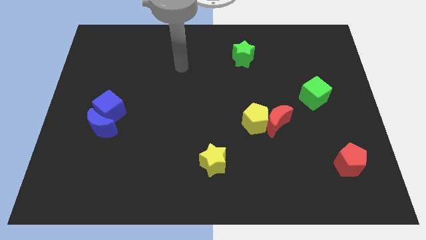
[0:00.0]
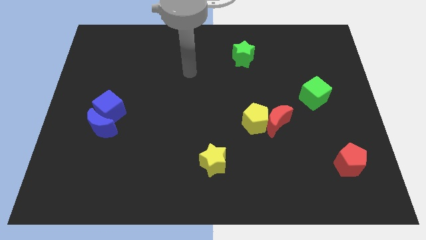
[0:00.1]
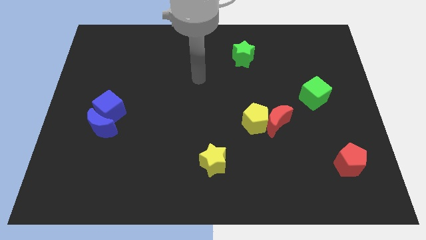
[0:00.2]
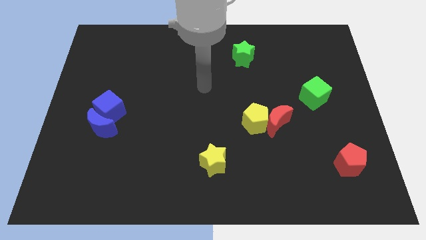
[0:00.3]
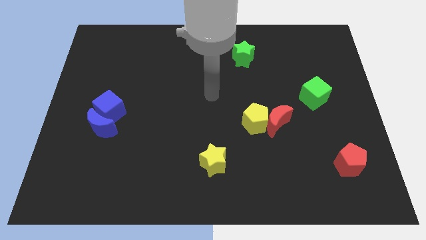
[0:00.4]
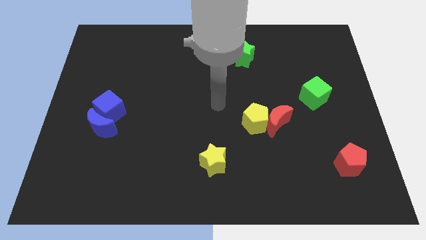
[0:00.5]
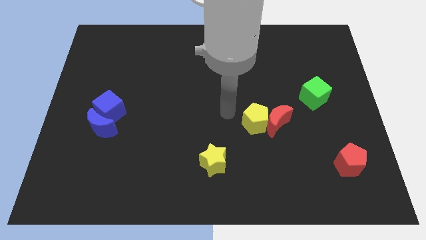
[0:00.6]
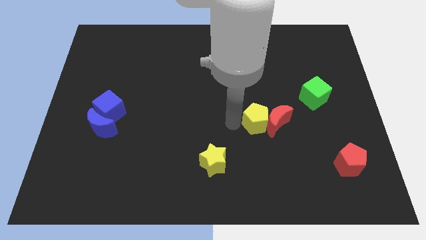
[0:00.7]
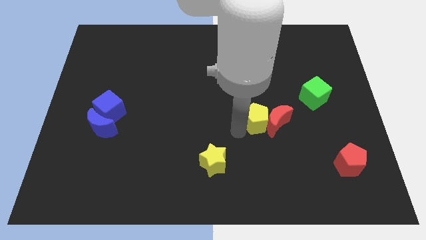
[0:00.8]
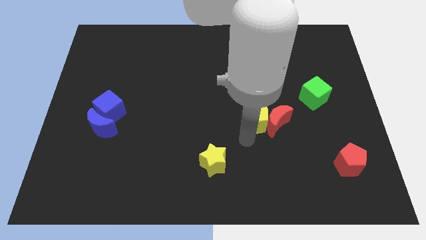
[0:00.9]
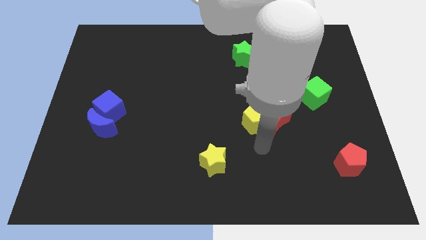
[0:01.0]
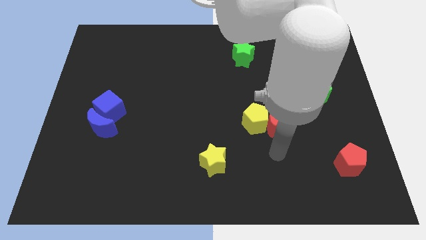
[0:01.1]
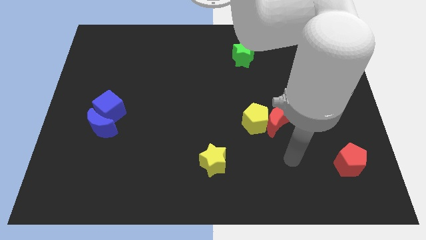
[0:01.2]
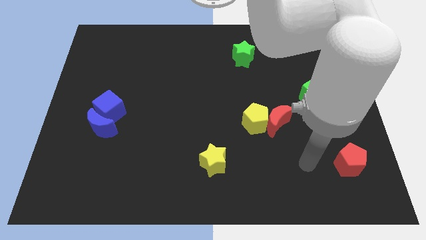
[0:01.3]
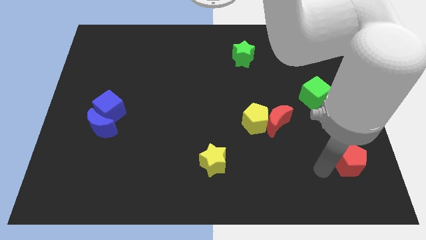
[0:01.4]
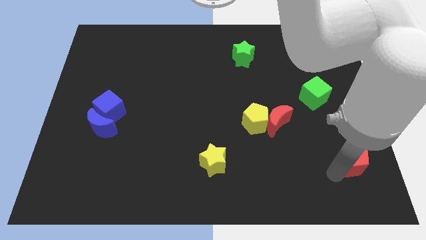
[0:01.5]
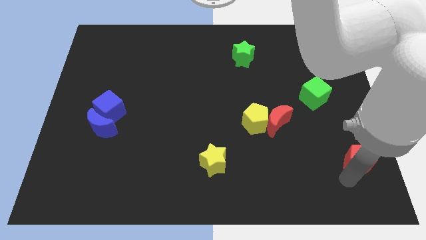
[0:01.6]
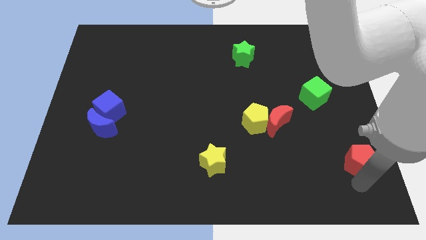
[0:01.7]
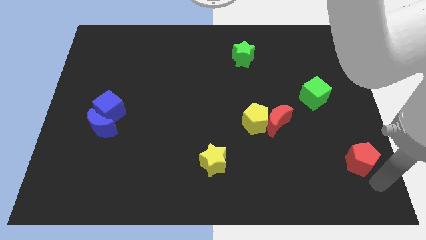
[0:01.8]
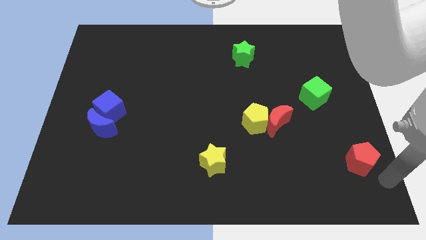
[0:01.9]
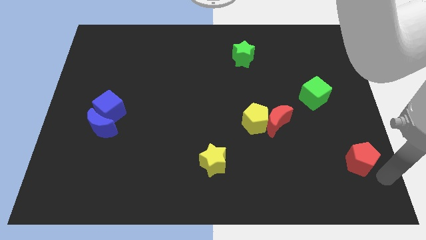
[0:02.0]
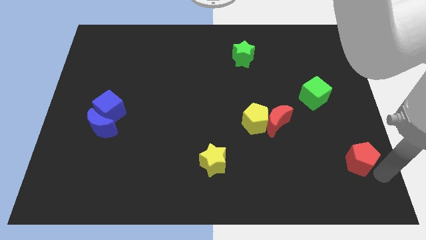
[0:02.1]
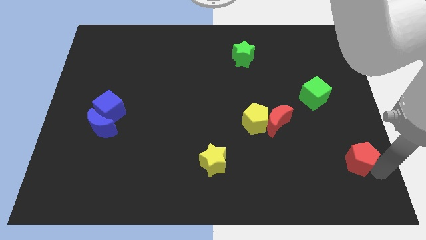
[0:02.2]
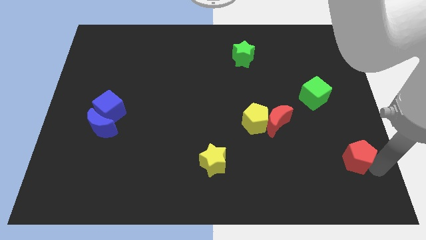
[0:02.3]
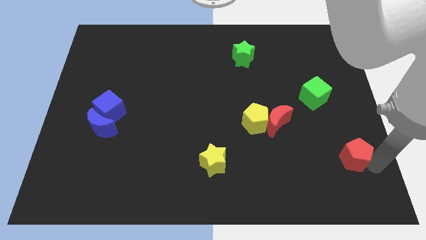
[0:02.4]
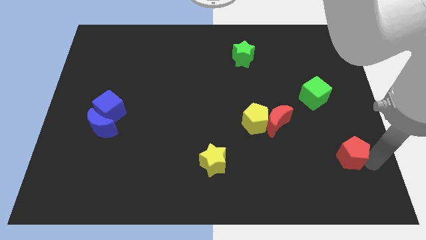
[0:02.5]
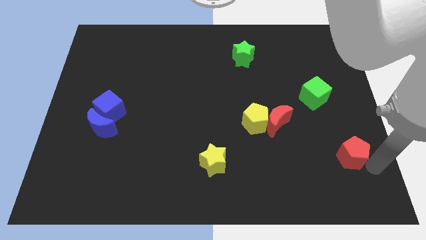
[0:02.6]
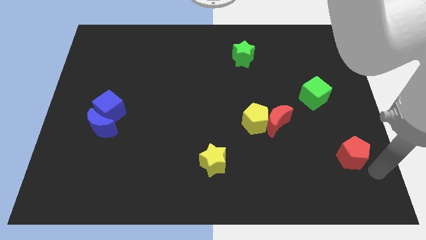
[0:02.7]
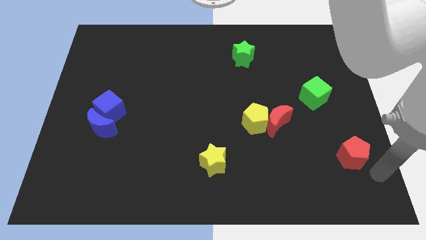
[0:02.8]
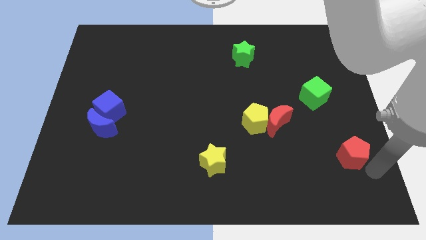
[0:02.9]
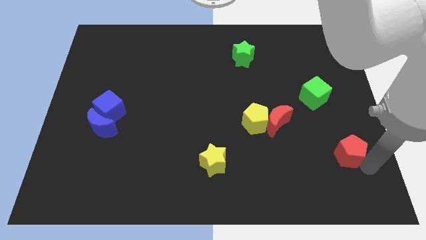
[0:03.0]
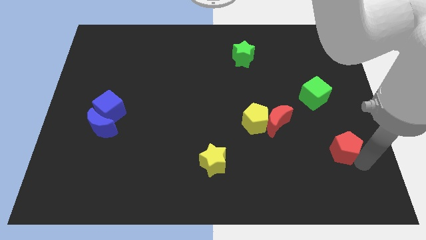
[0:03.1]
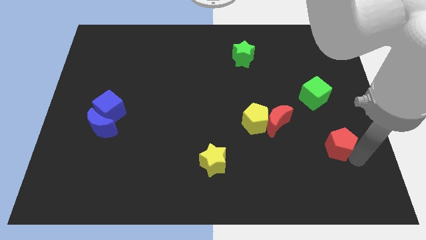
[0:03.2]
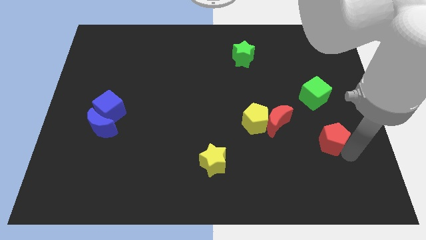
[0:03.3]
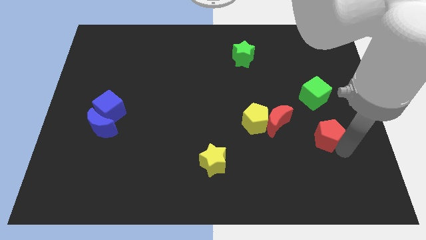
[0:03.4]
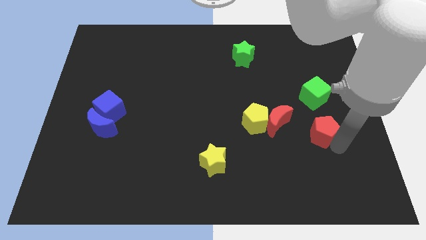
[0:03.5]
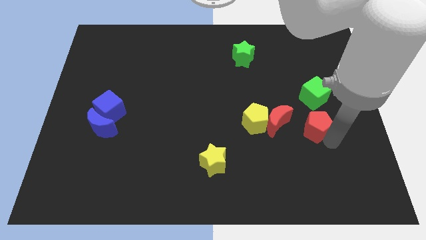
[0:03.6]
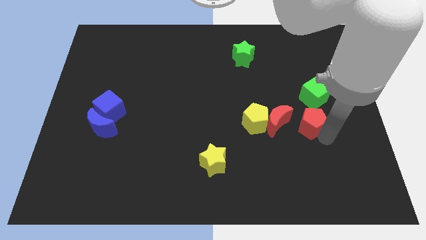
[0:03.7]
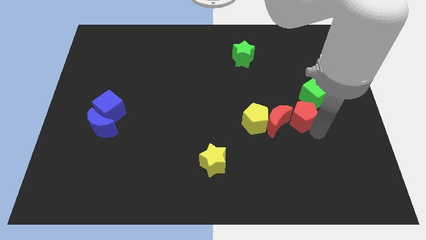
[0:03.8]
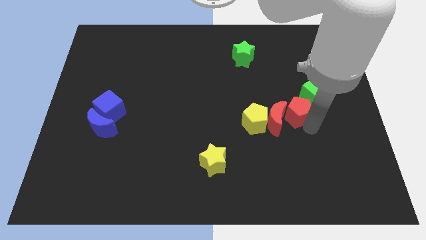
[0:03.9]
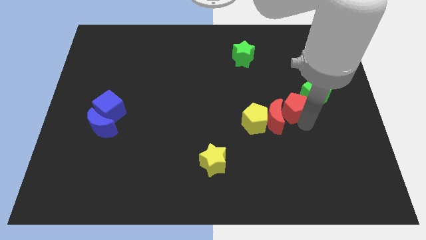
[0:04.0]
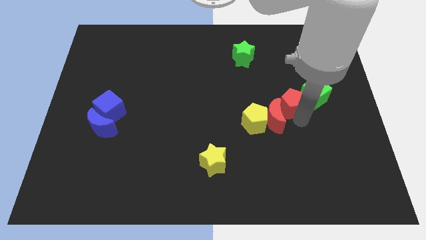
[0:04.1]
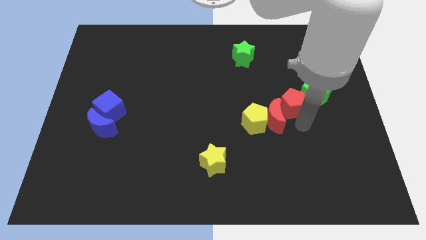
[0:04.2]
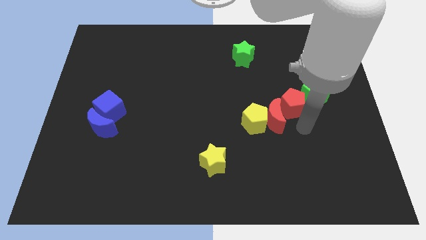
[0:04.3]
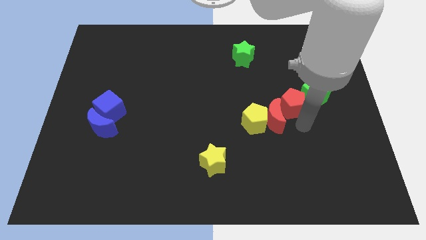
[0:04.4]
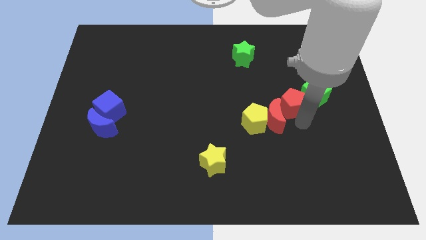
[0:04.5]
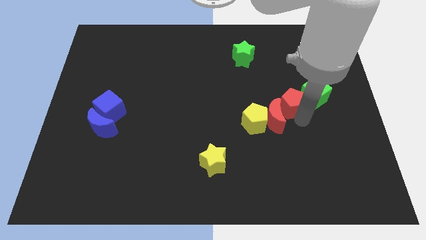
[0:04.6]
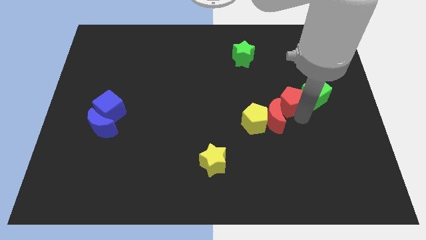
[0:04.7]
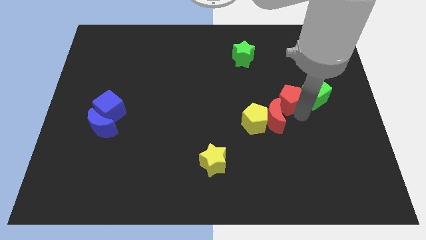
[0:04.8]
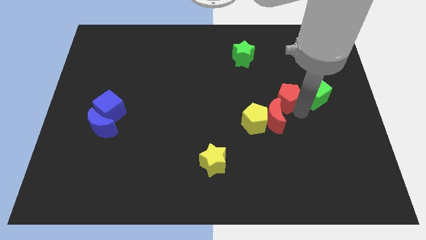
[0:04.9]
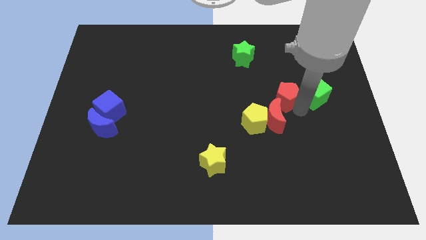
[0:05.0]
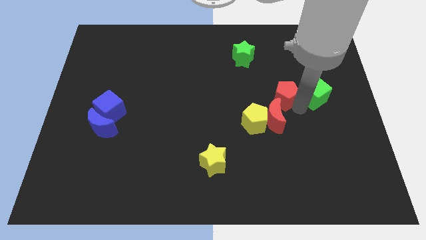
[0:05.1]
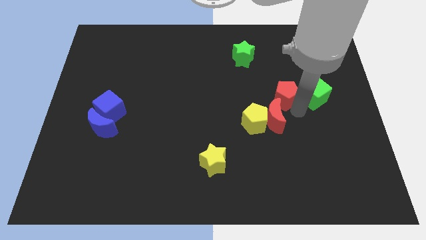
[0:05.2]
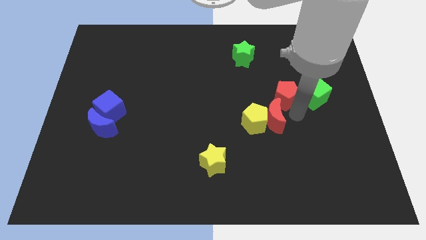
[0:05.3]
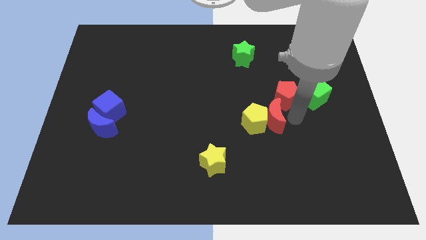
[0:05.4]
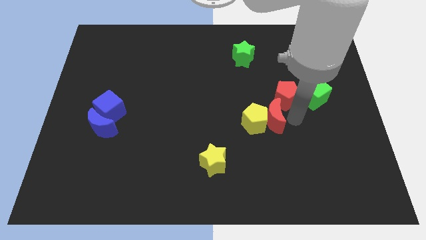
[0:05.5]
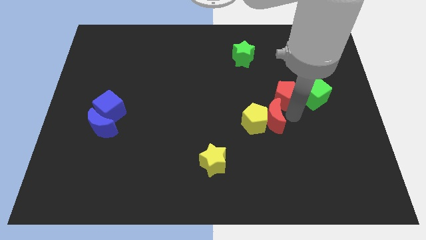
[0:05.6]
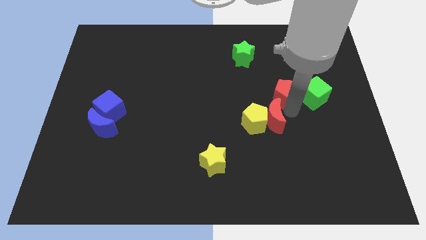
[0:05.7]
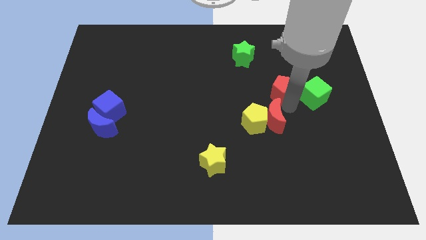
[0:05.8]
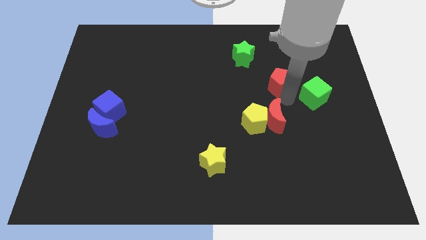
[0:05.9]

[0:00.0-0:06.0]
put the red pentagon to the bottom right of the green star

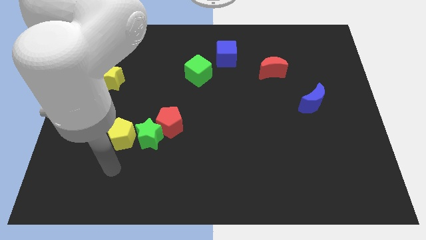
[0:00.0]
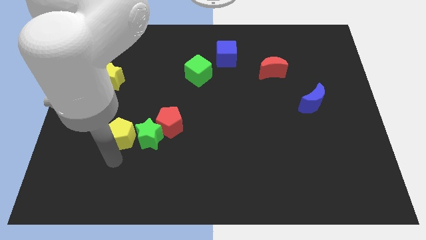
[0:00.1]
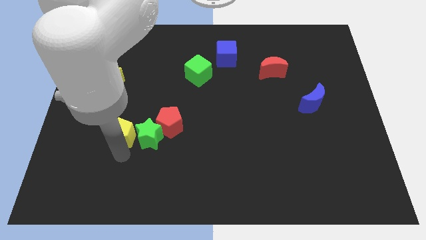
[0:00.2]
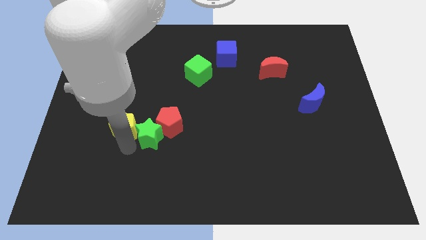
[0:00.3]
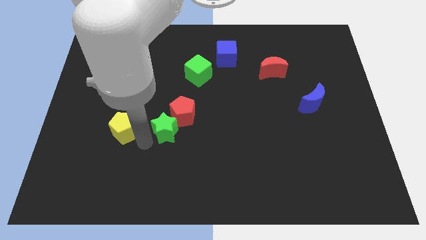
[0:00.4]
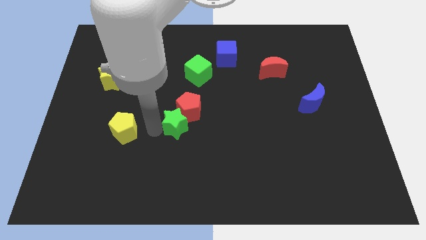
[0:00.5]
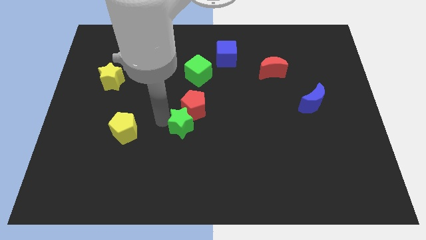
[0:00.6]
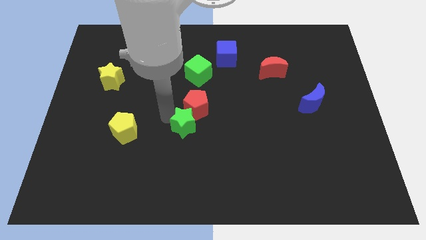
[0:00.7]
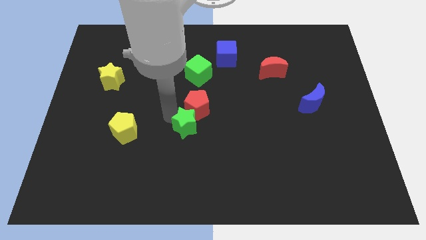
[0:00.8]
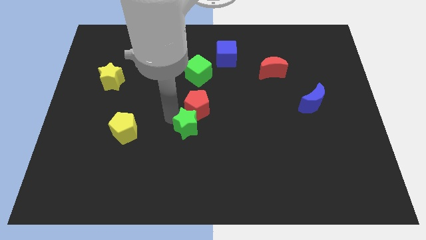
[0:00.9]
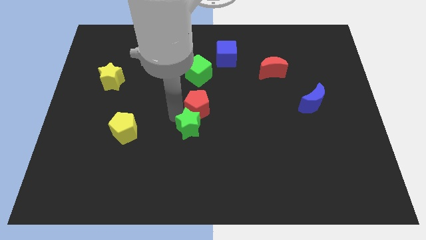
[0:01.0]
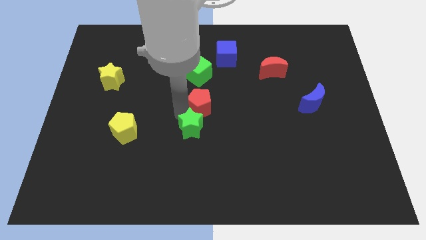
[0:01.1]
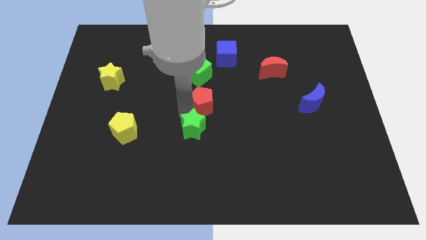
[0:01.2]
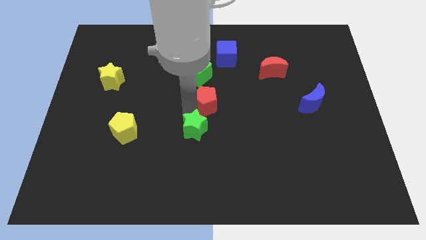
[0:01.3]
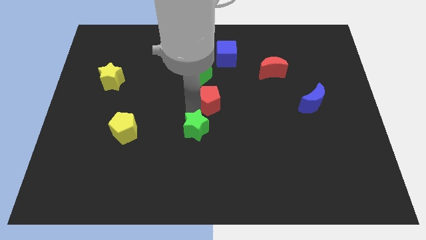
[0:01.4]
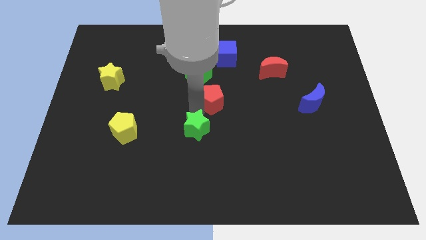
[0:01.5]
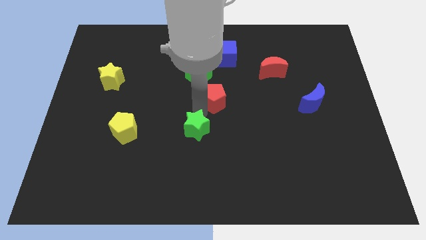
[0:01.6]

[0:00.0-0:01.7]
move the red pentagon below the blue cube
